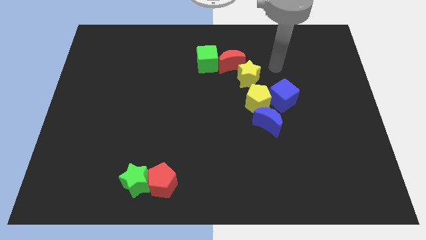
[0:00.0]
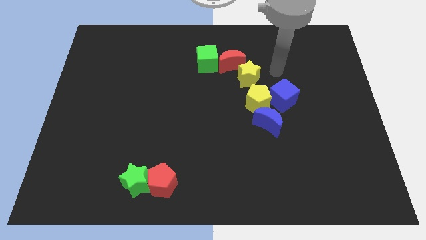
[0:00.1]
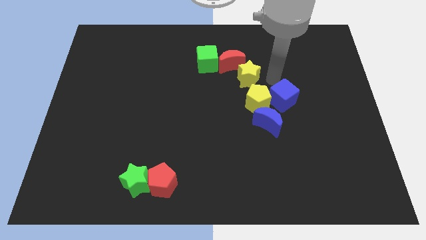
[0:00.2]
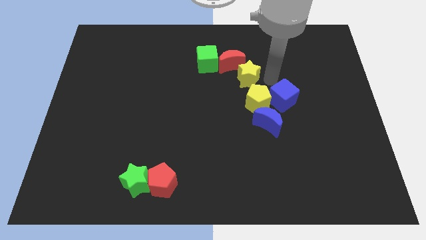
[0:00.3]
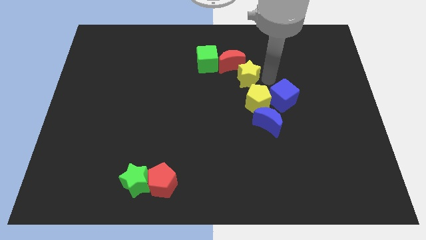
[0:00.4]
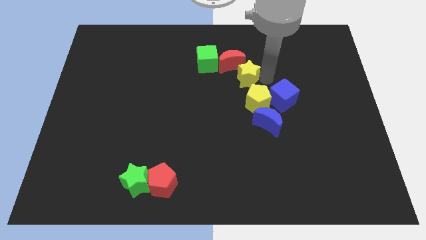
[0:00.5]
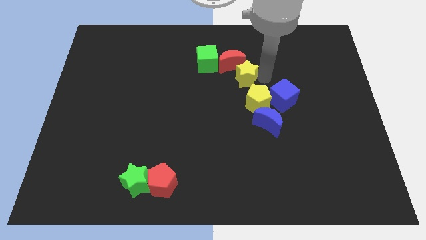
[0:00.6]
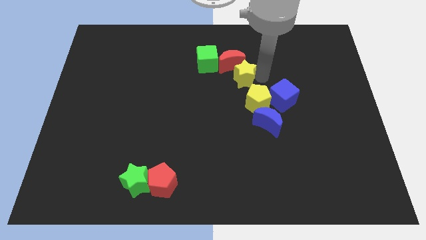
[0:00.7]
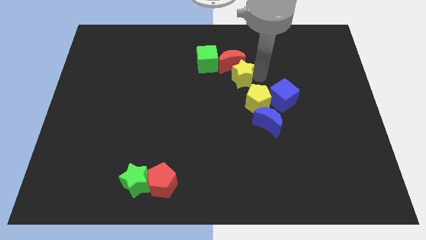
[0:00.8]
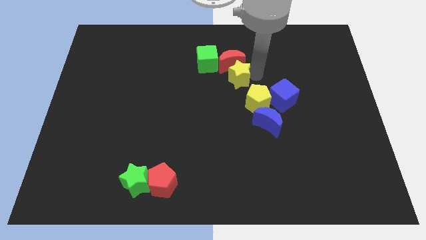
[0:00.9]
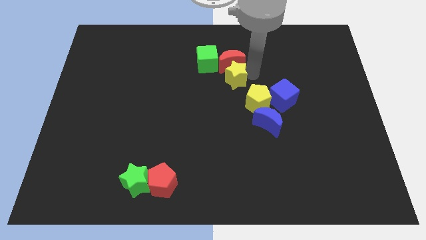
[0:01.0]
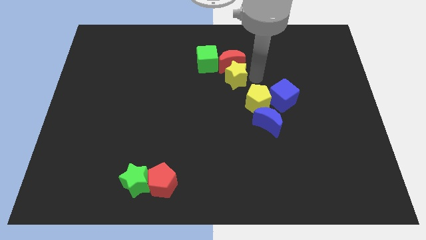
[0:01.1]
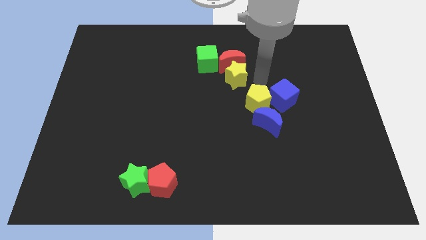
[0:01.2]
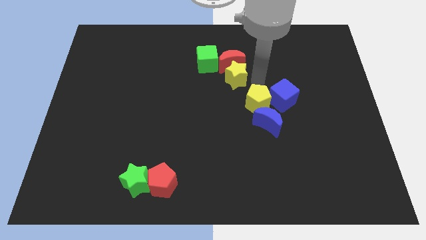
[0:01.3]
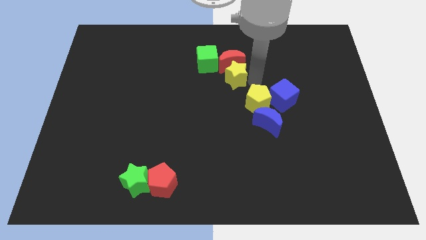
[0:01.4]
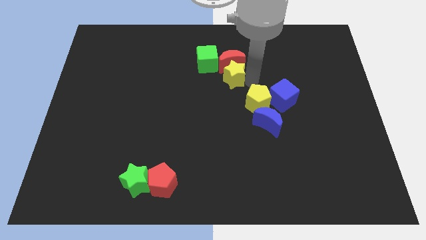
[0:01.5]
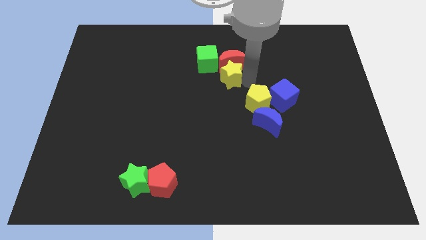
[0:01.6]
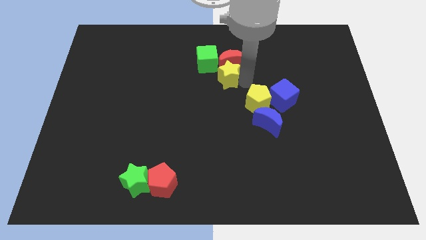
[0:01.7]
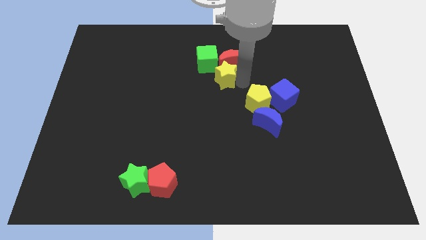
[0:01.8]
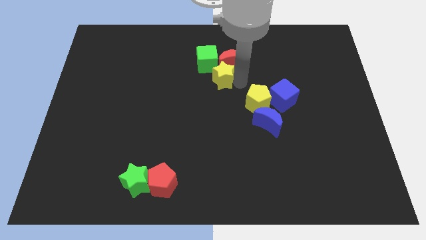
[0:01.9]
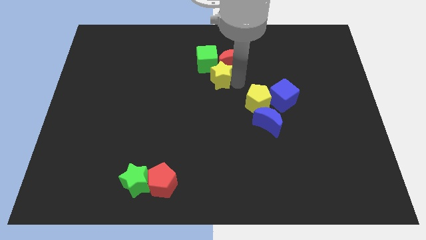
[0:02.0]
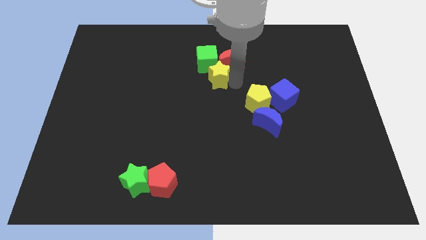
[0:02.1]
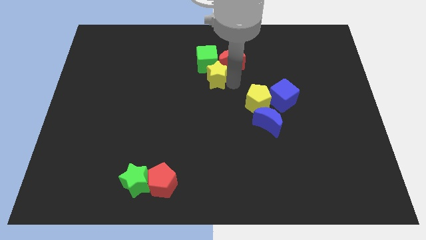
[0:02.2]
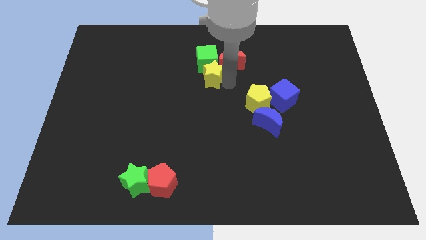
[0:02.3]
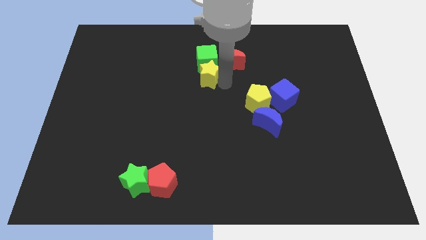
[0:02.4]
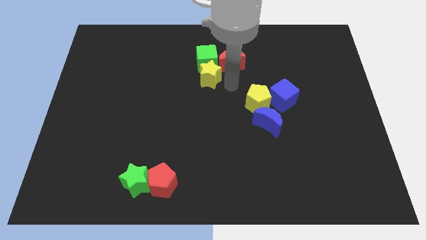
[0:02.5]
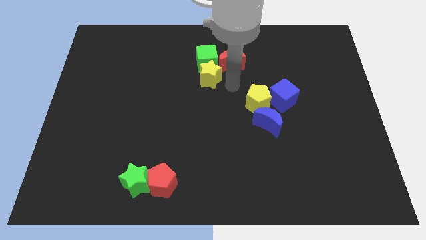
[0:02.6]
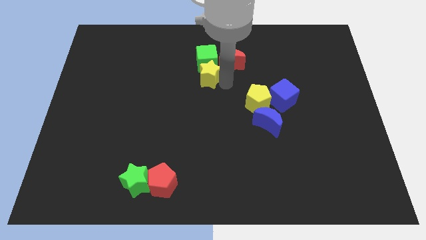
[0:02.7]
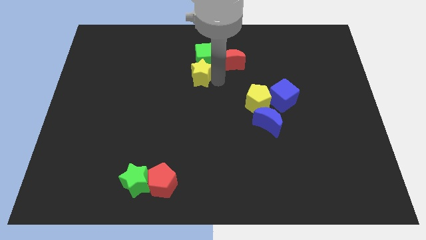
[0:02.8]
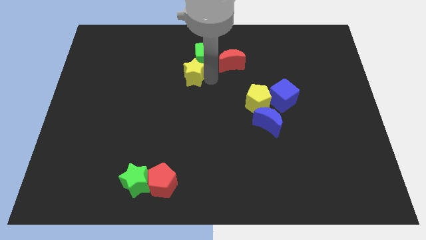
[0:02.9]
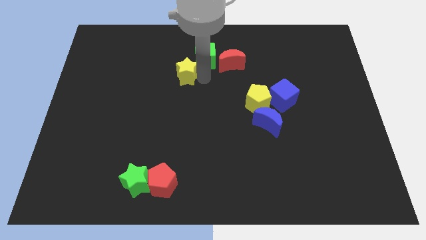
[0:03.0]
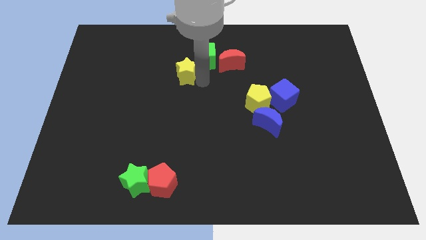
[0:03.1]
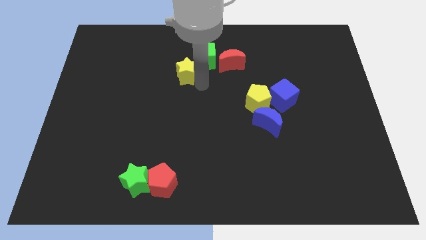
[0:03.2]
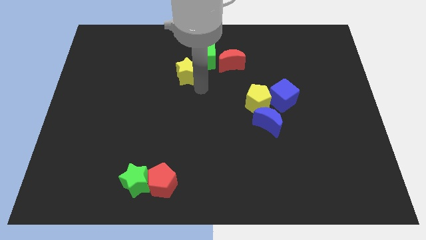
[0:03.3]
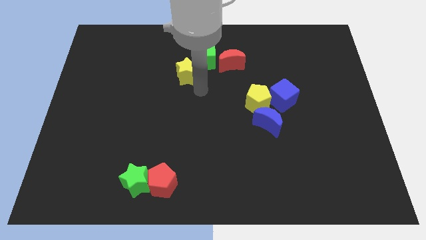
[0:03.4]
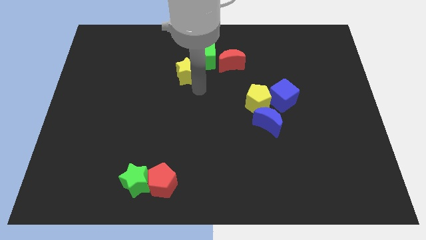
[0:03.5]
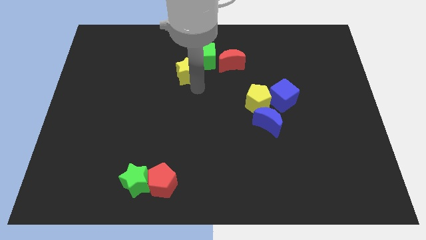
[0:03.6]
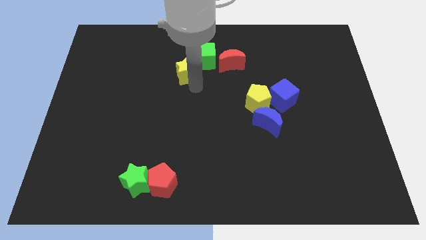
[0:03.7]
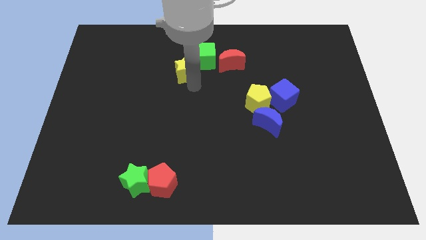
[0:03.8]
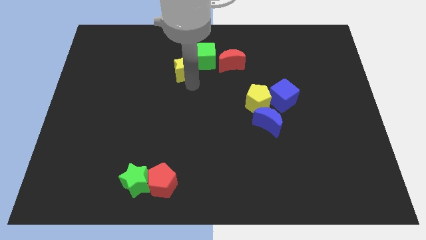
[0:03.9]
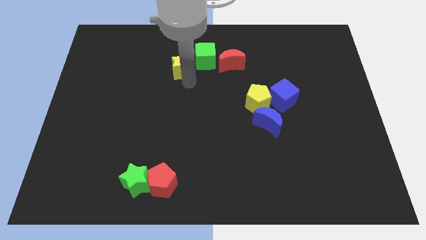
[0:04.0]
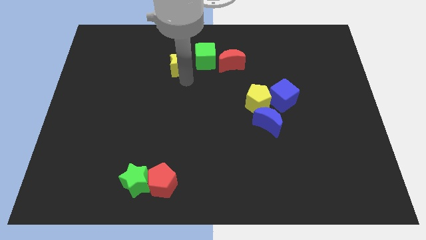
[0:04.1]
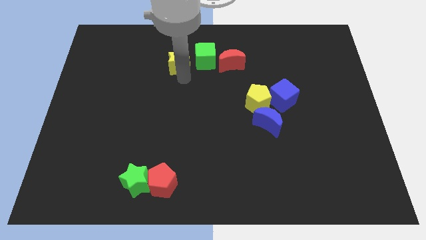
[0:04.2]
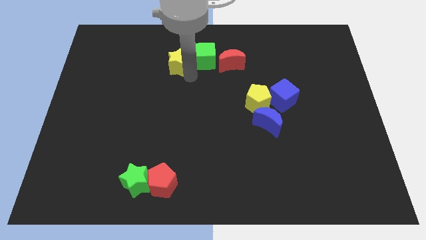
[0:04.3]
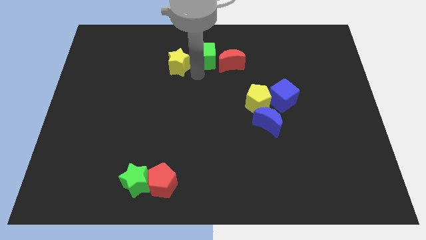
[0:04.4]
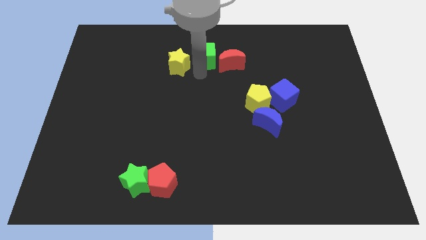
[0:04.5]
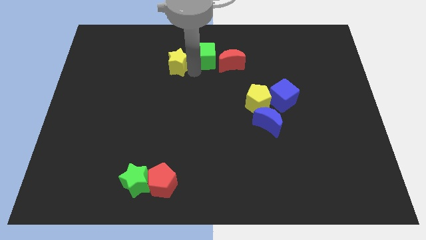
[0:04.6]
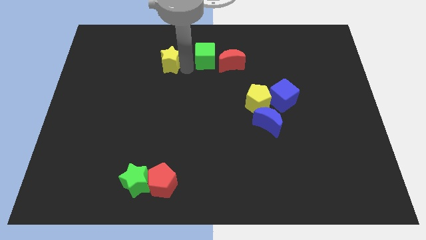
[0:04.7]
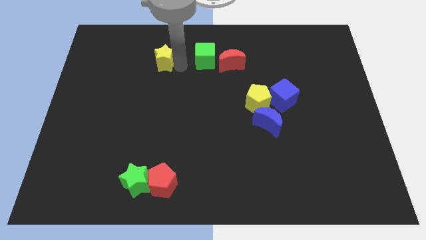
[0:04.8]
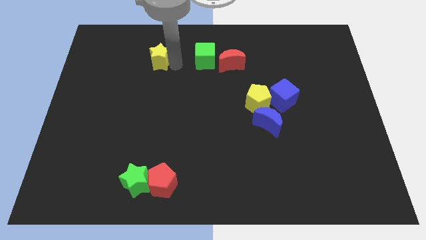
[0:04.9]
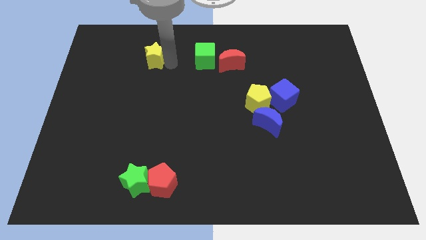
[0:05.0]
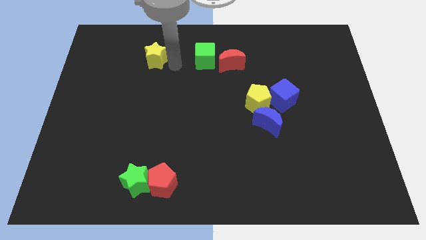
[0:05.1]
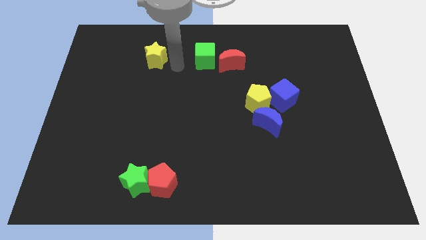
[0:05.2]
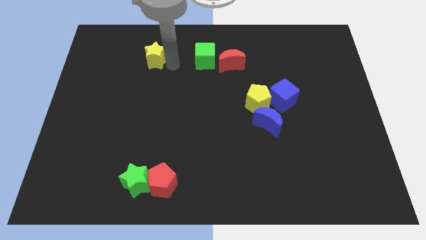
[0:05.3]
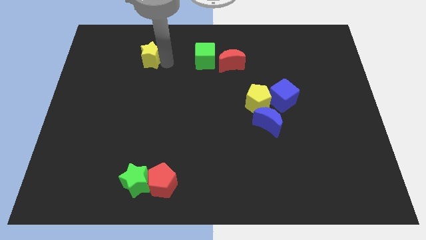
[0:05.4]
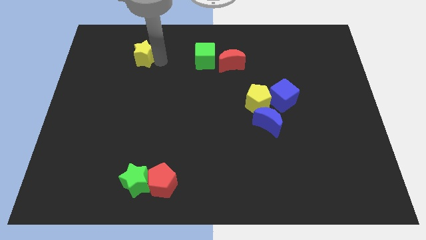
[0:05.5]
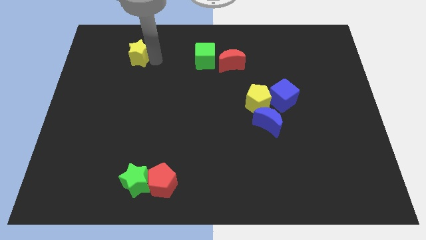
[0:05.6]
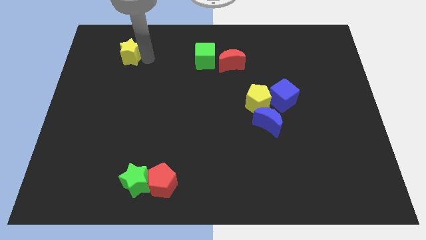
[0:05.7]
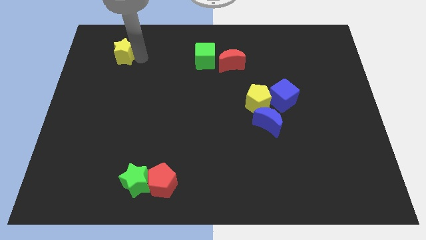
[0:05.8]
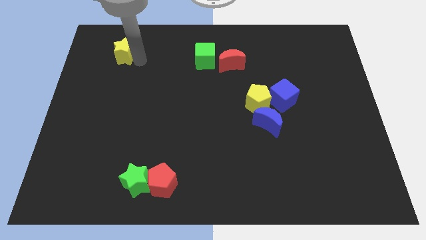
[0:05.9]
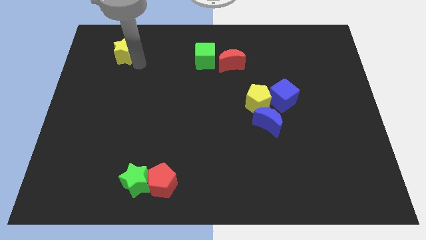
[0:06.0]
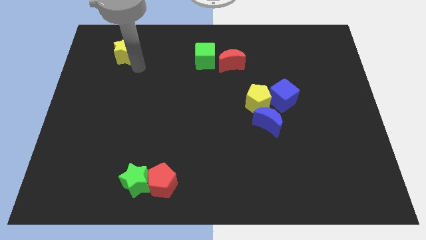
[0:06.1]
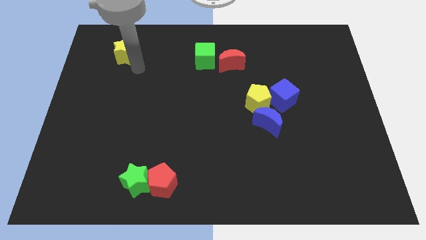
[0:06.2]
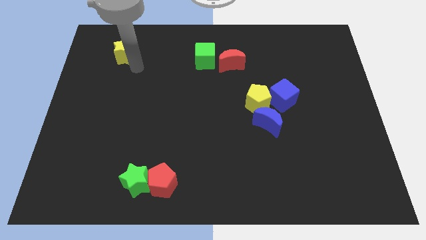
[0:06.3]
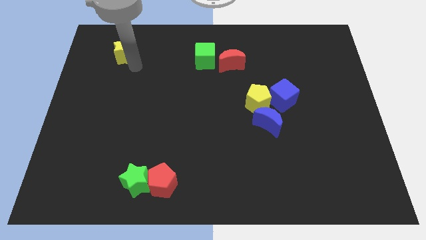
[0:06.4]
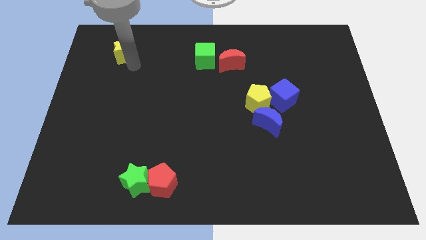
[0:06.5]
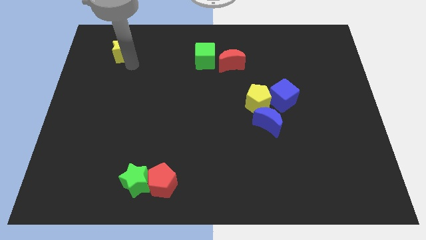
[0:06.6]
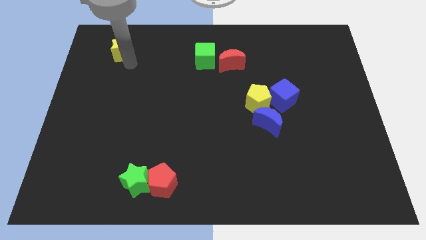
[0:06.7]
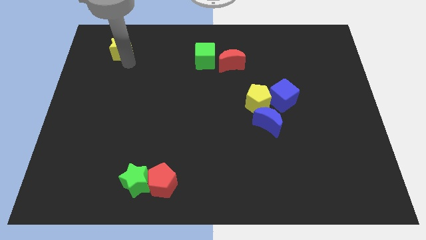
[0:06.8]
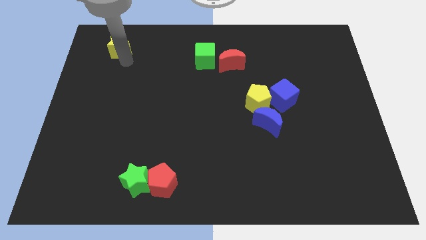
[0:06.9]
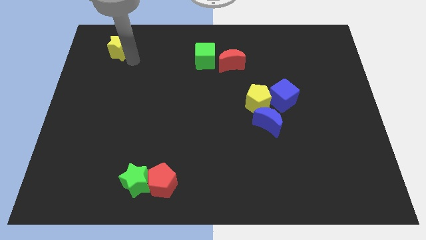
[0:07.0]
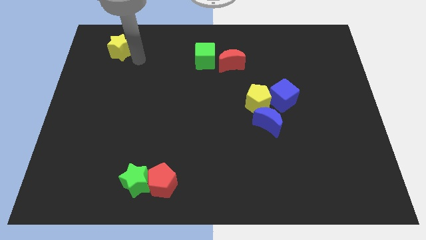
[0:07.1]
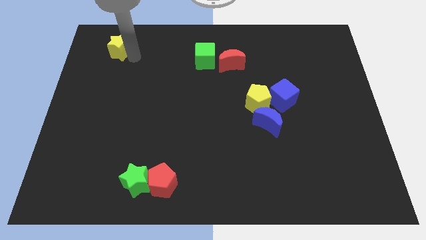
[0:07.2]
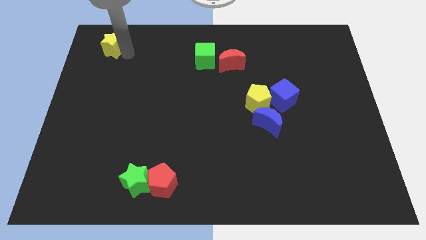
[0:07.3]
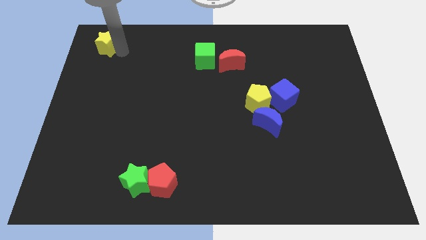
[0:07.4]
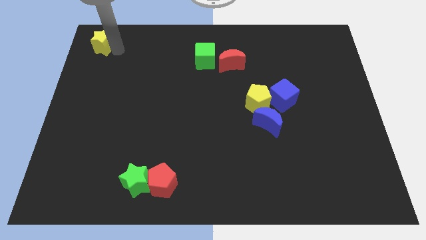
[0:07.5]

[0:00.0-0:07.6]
slide the yellow star to the top left of the board
